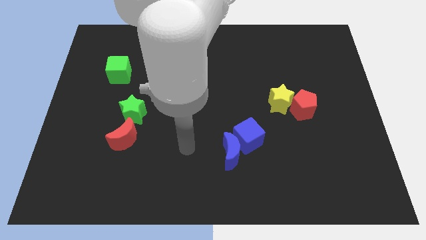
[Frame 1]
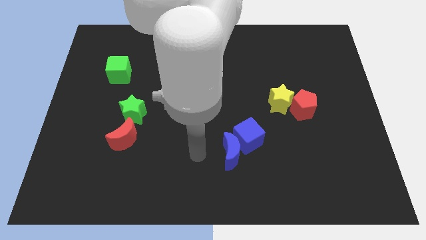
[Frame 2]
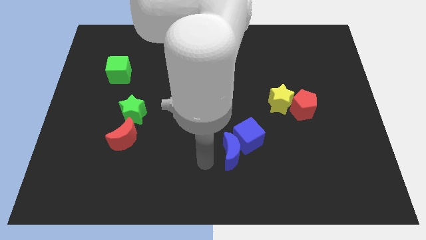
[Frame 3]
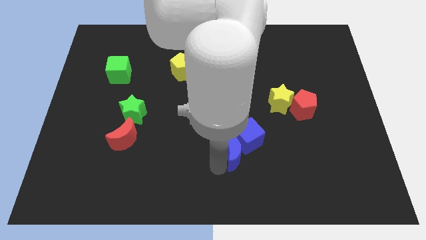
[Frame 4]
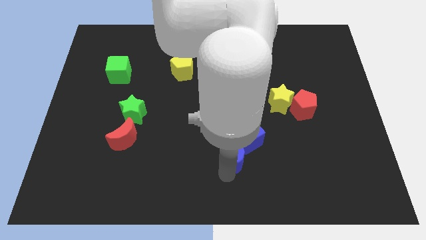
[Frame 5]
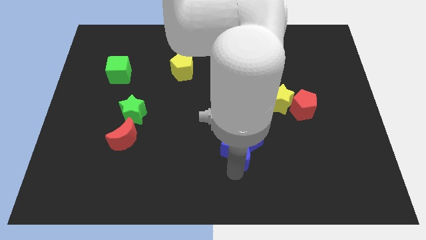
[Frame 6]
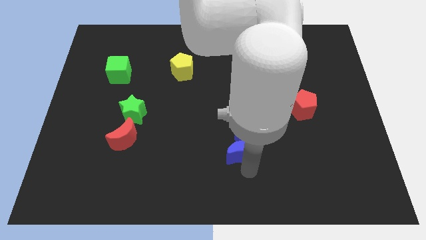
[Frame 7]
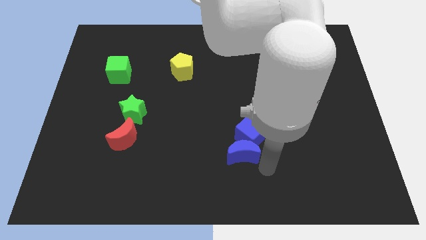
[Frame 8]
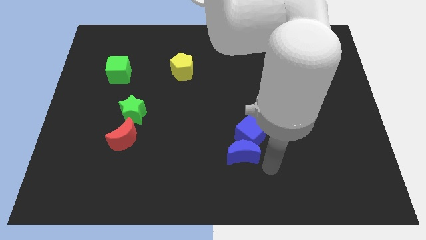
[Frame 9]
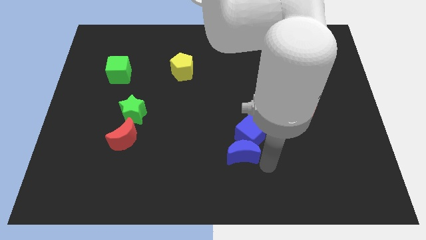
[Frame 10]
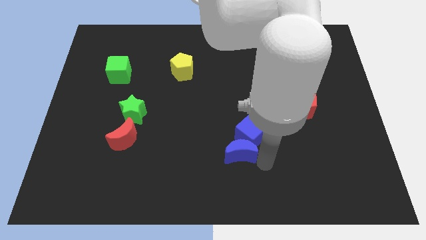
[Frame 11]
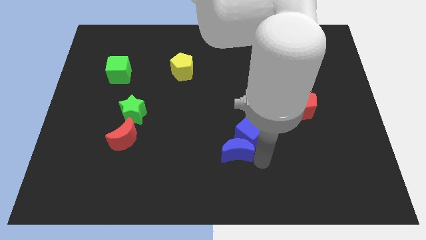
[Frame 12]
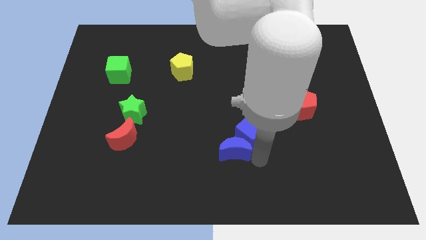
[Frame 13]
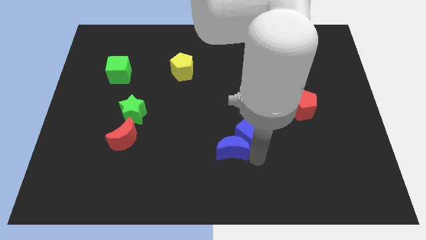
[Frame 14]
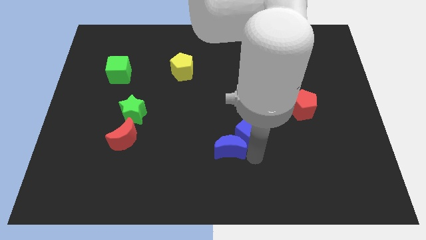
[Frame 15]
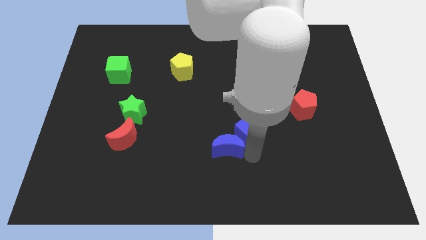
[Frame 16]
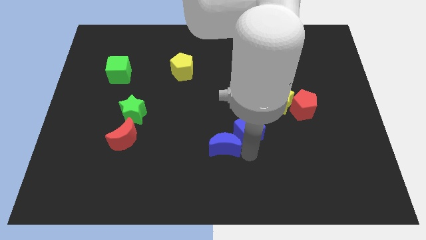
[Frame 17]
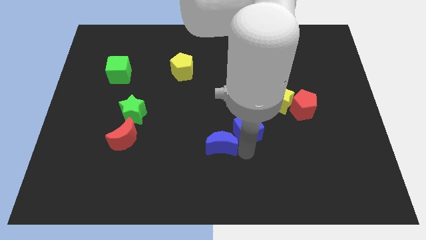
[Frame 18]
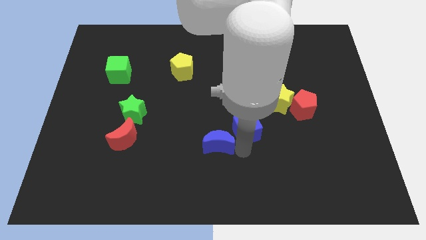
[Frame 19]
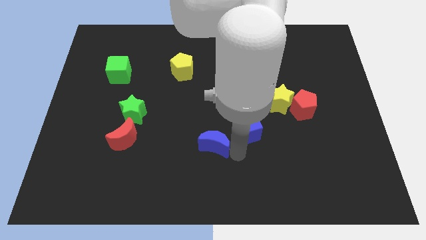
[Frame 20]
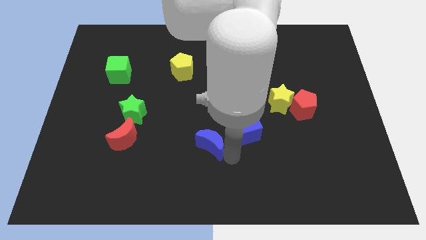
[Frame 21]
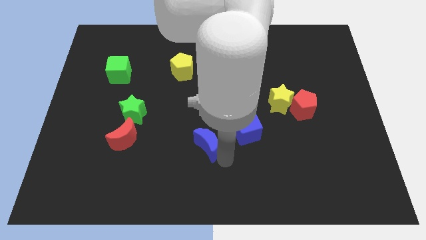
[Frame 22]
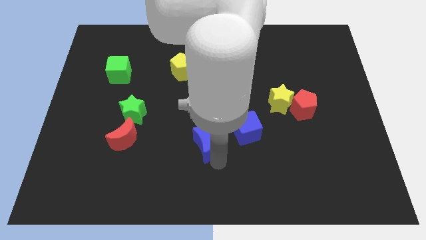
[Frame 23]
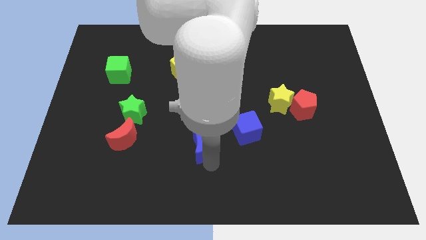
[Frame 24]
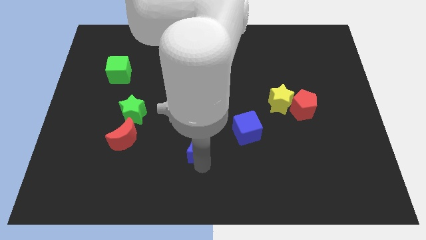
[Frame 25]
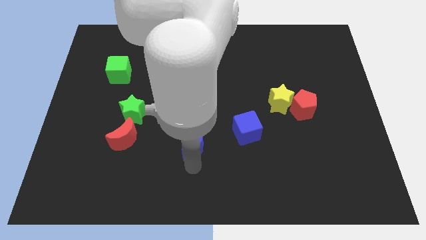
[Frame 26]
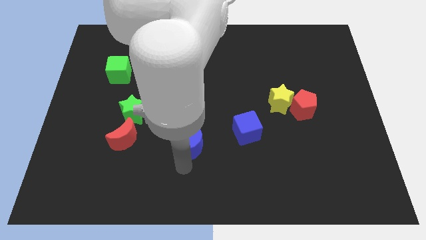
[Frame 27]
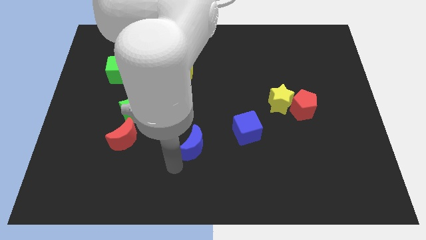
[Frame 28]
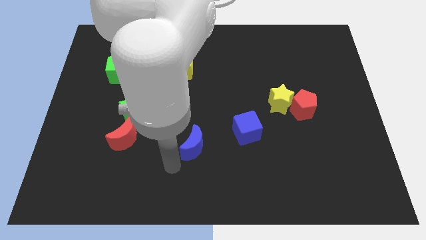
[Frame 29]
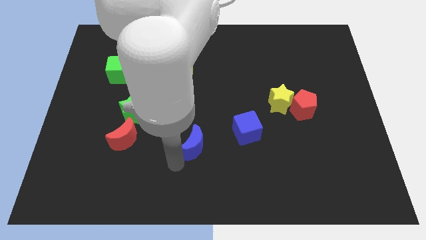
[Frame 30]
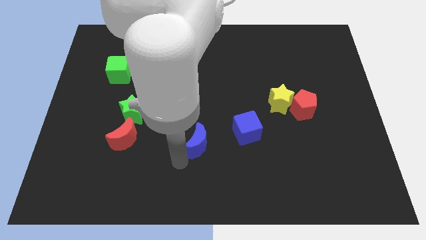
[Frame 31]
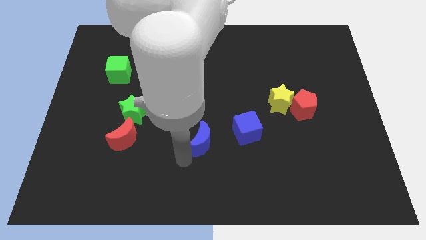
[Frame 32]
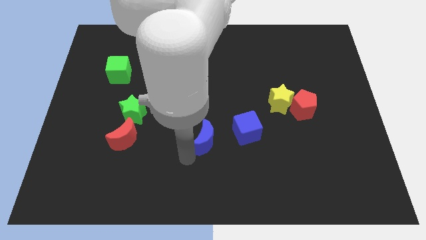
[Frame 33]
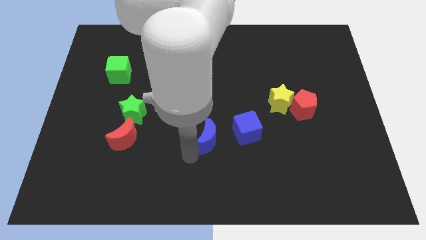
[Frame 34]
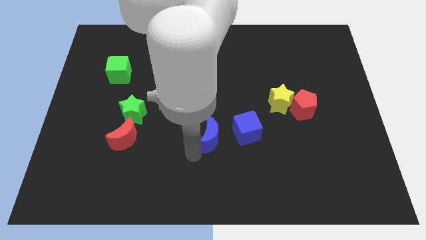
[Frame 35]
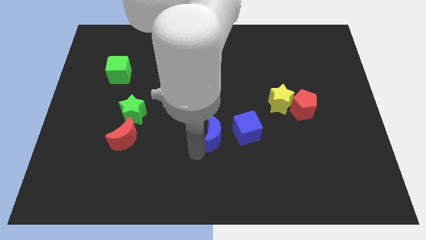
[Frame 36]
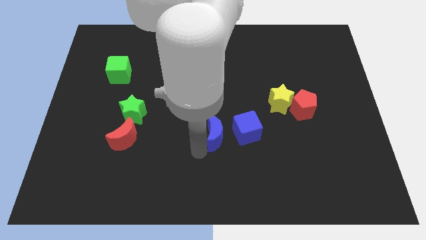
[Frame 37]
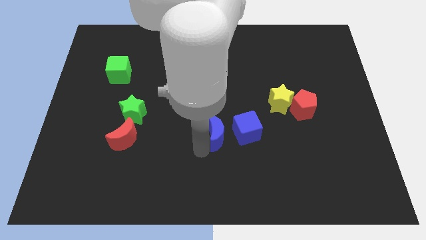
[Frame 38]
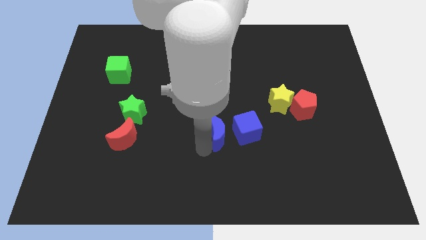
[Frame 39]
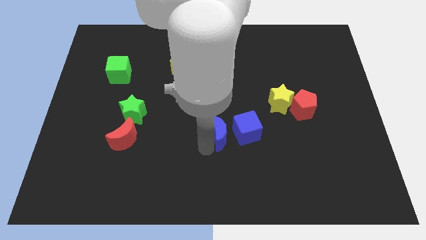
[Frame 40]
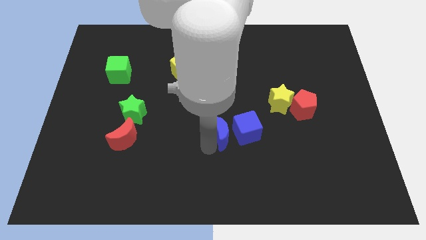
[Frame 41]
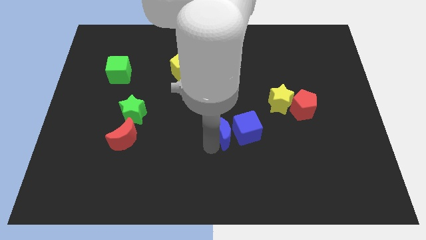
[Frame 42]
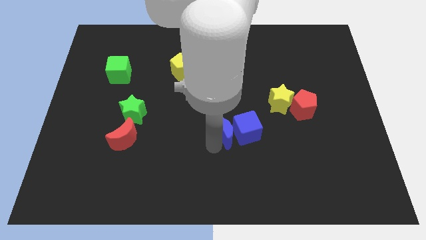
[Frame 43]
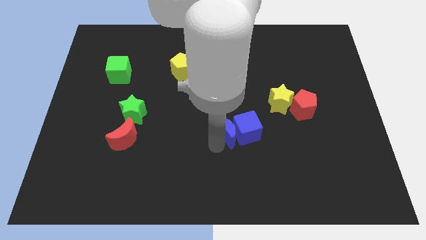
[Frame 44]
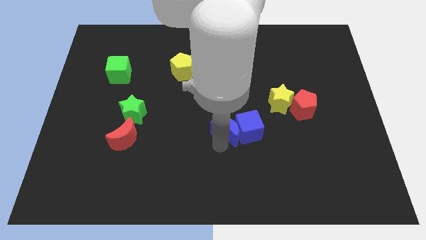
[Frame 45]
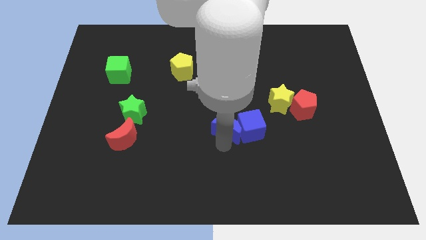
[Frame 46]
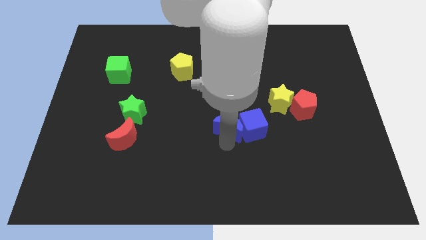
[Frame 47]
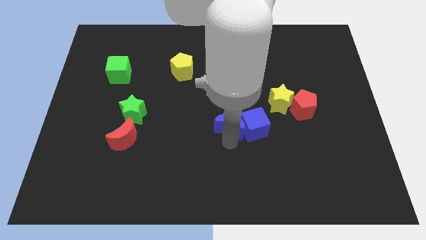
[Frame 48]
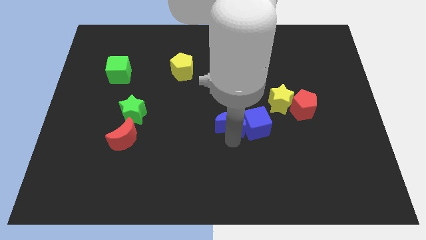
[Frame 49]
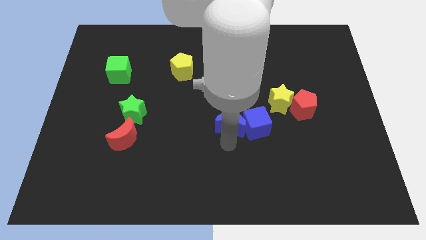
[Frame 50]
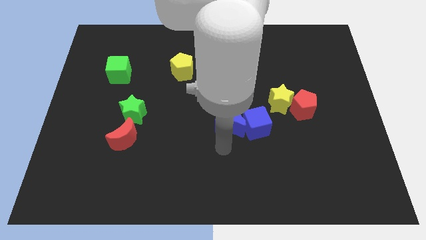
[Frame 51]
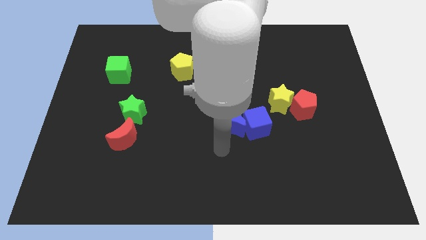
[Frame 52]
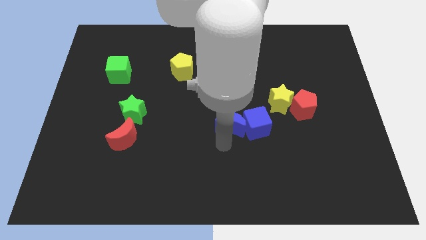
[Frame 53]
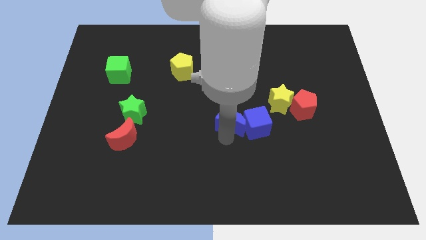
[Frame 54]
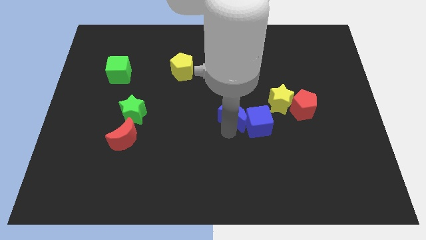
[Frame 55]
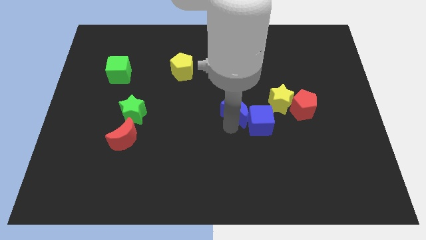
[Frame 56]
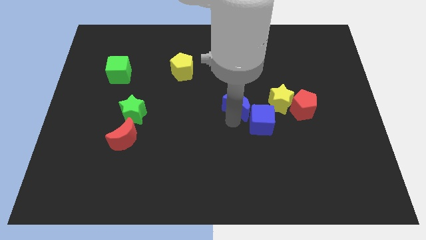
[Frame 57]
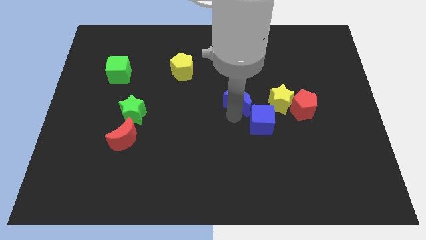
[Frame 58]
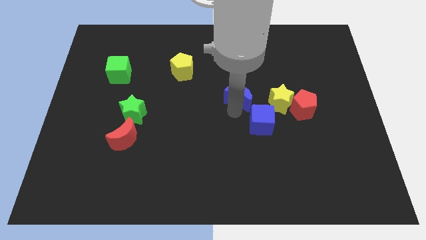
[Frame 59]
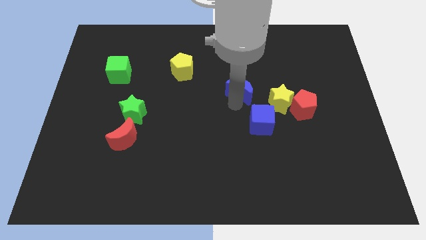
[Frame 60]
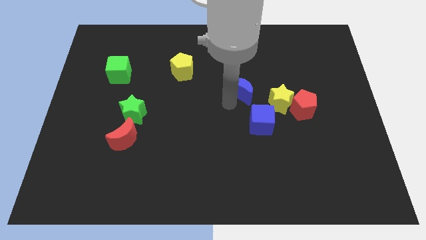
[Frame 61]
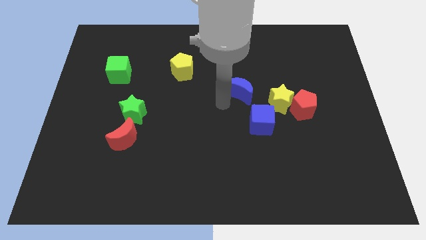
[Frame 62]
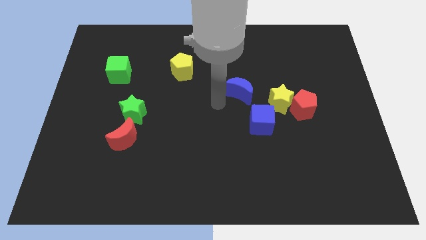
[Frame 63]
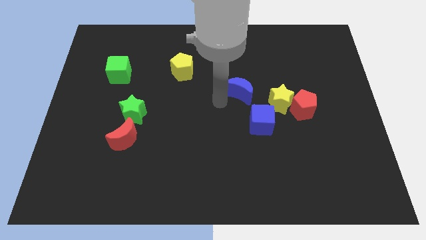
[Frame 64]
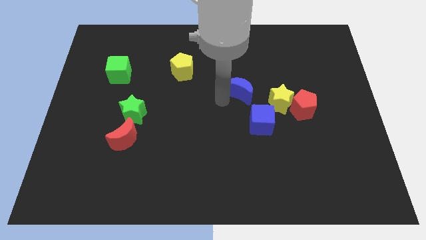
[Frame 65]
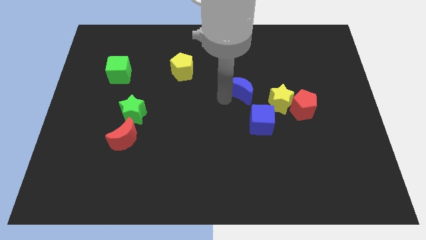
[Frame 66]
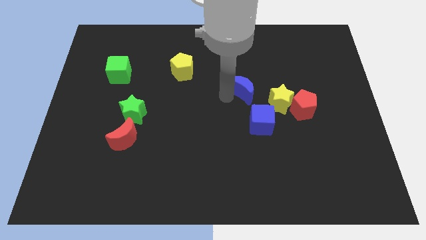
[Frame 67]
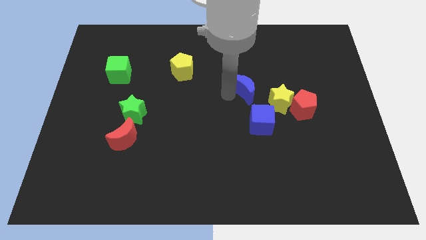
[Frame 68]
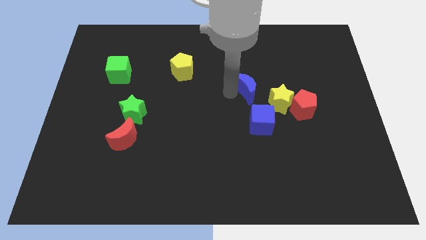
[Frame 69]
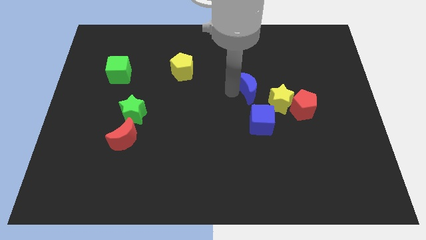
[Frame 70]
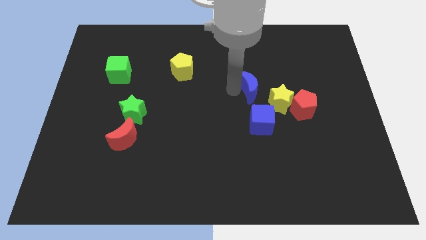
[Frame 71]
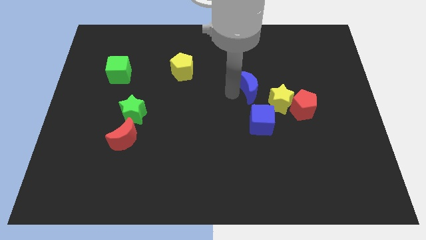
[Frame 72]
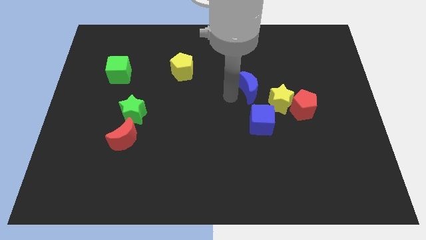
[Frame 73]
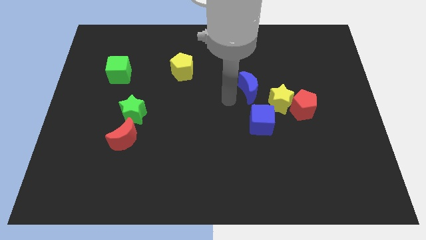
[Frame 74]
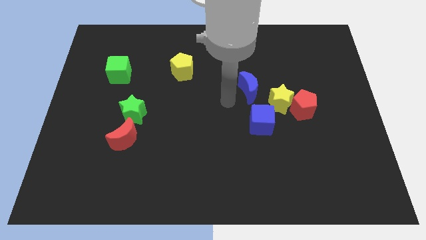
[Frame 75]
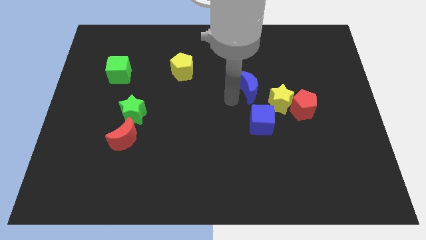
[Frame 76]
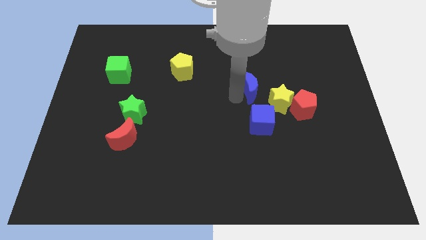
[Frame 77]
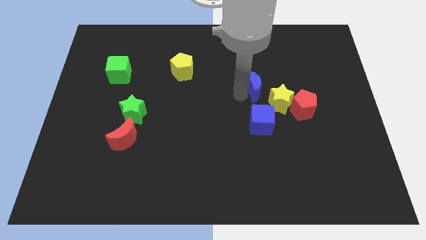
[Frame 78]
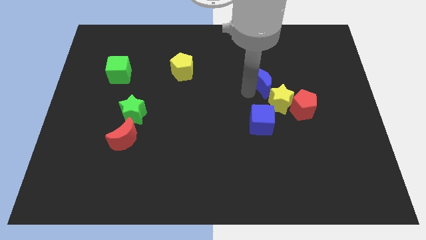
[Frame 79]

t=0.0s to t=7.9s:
slide the blue moon above the yellow star
